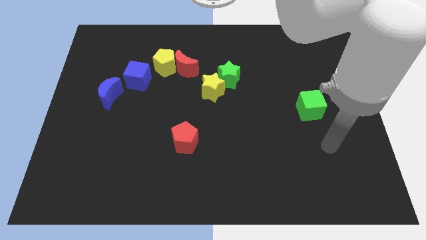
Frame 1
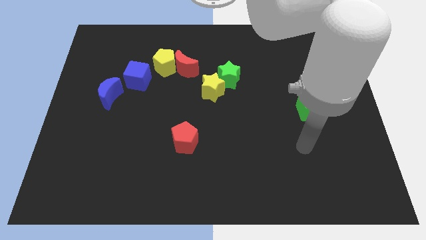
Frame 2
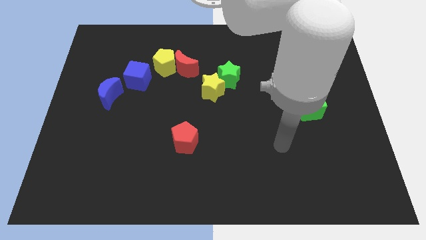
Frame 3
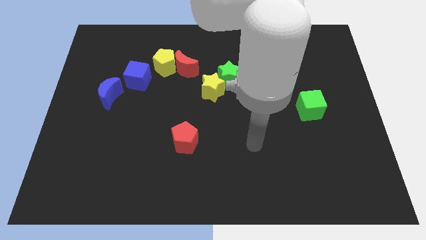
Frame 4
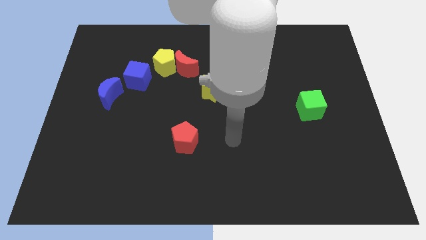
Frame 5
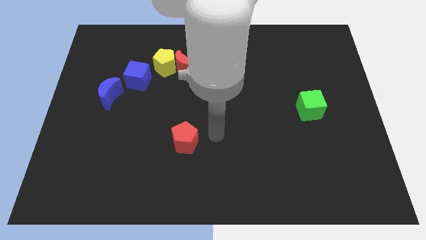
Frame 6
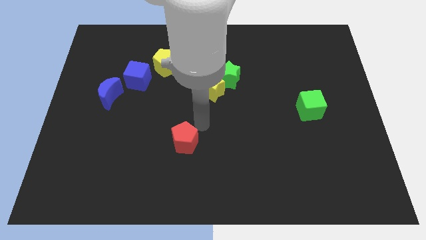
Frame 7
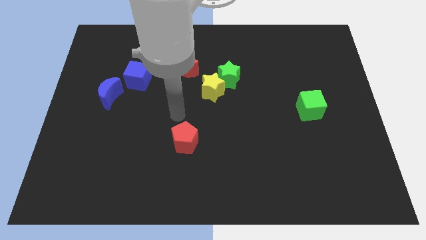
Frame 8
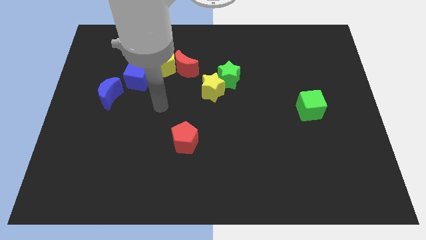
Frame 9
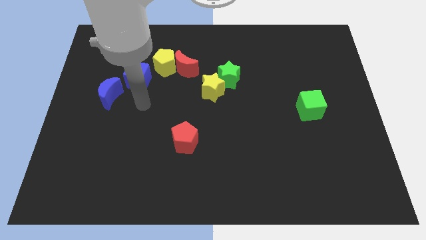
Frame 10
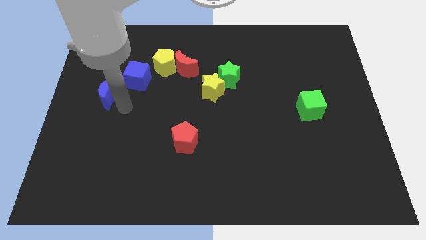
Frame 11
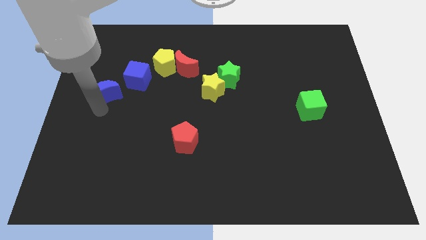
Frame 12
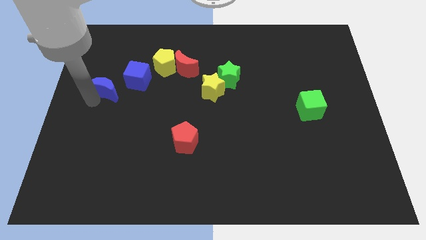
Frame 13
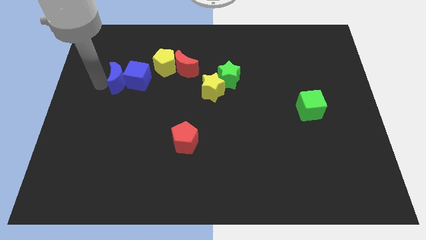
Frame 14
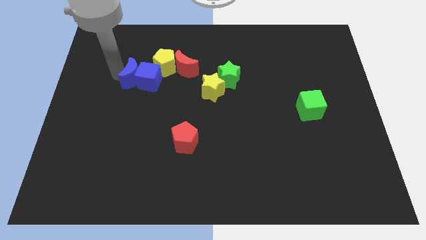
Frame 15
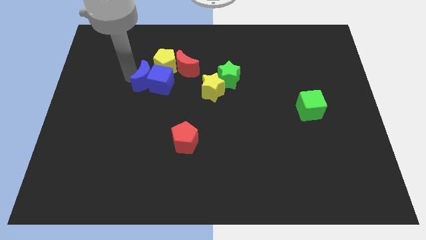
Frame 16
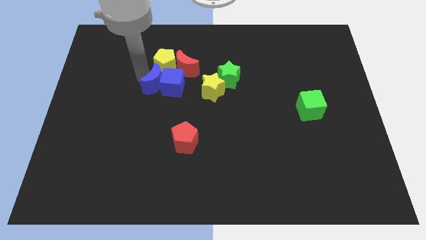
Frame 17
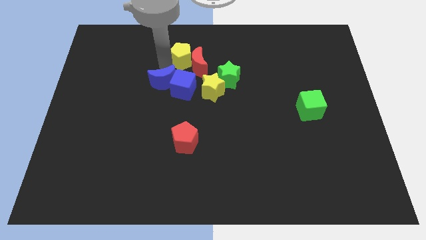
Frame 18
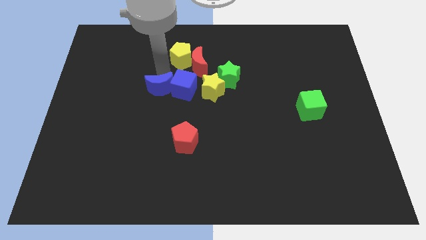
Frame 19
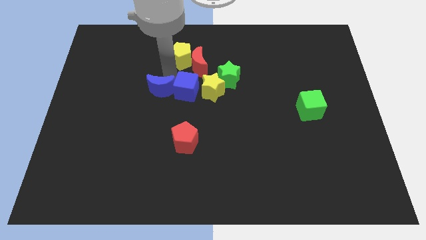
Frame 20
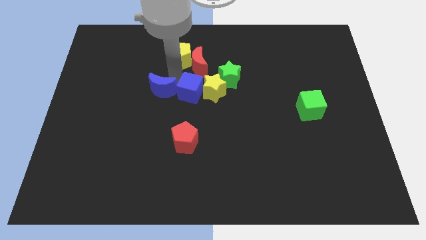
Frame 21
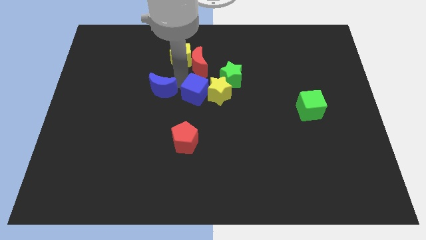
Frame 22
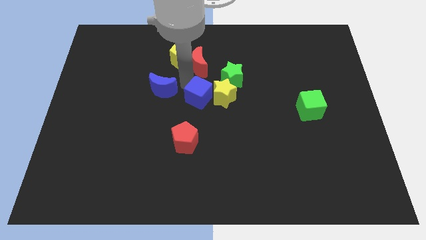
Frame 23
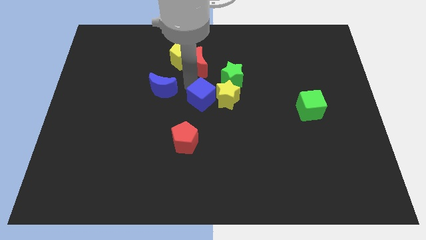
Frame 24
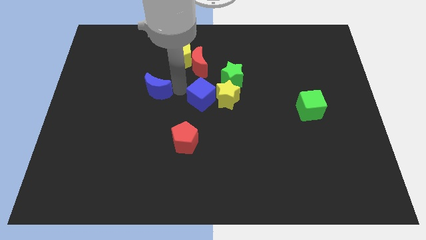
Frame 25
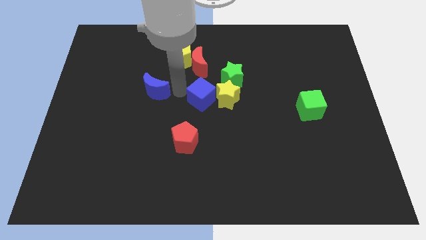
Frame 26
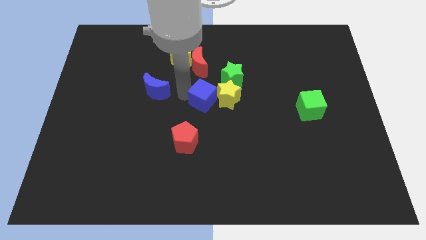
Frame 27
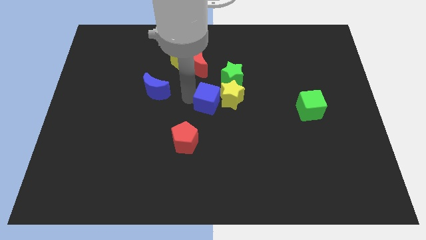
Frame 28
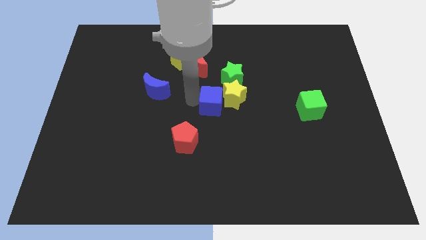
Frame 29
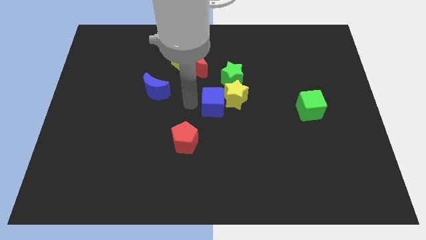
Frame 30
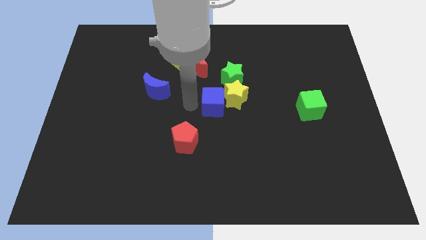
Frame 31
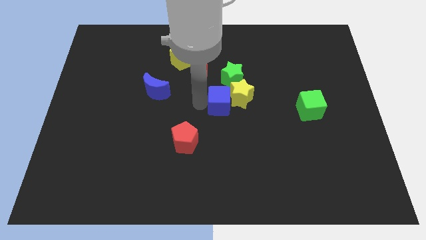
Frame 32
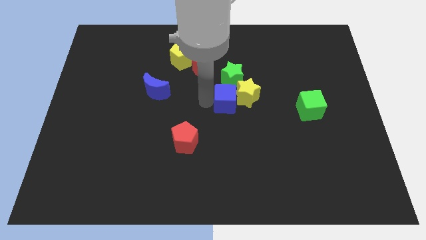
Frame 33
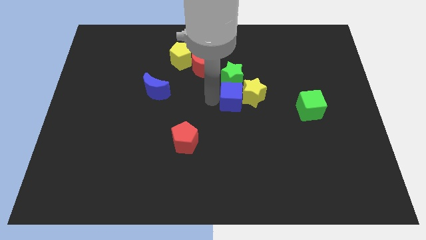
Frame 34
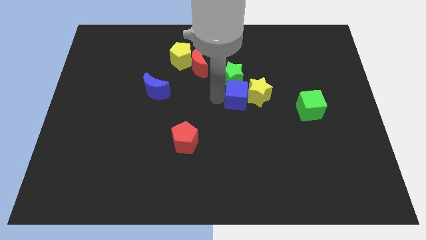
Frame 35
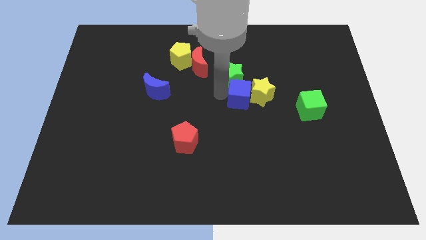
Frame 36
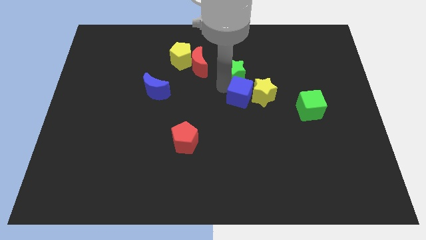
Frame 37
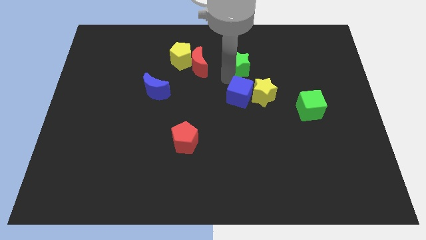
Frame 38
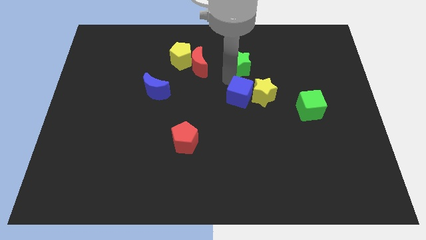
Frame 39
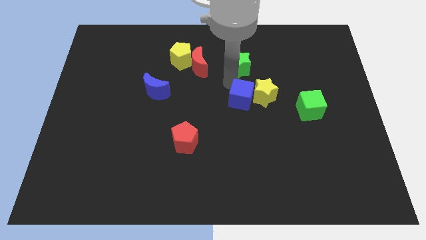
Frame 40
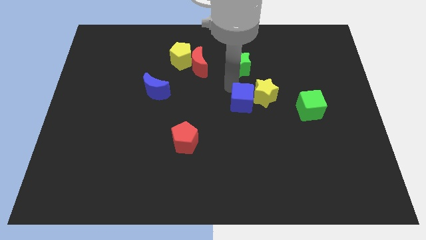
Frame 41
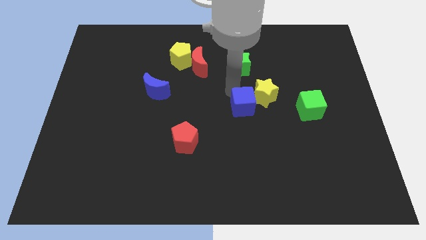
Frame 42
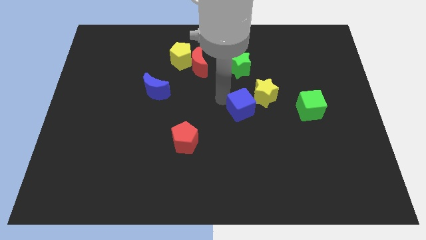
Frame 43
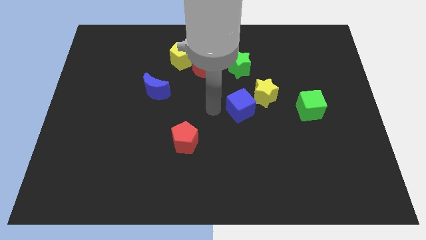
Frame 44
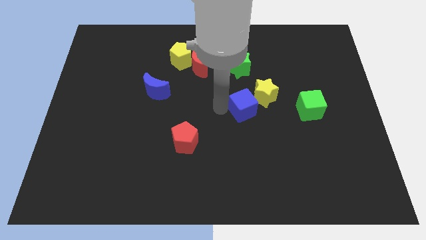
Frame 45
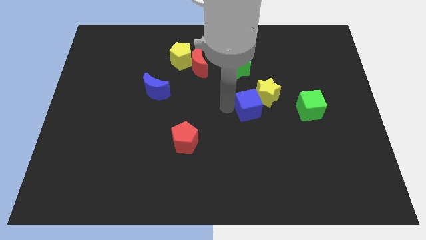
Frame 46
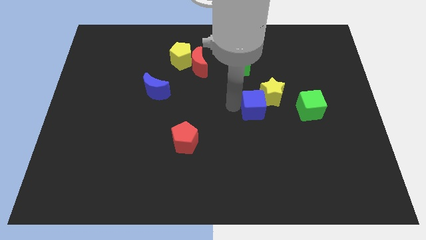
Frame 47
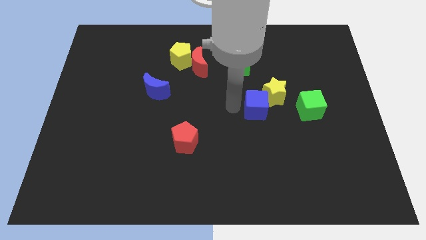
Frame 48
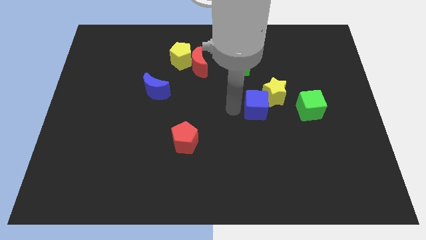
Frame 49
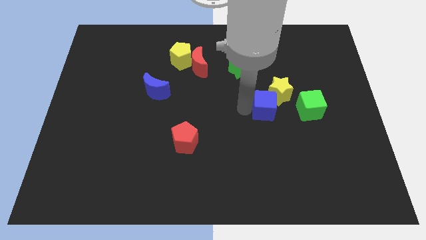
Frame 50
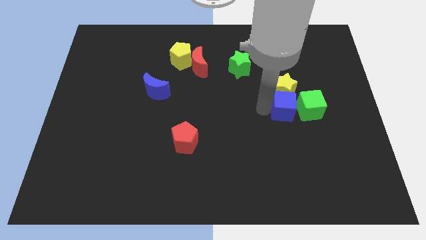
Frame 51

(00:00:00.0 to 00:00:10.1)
push the blue cube to the green cube

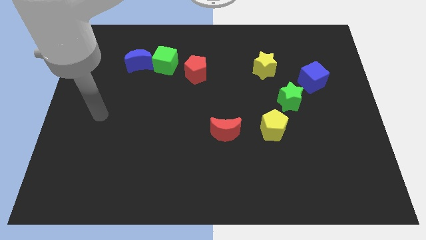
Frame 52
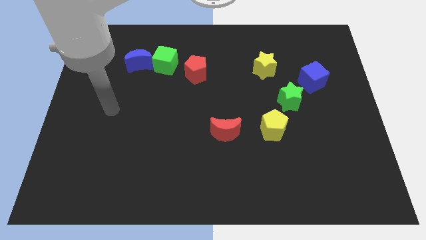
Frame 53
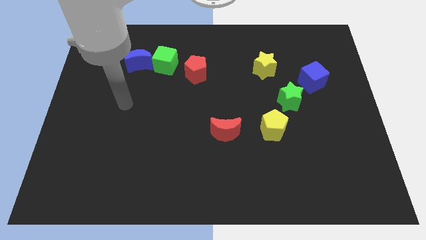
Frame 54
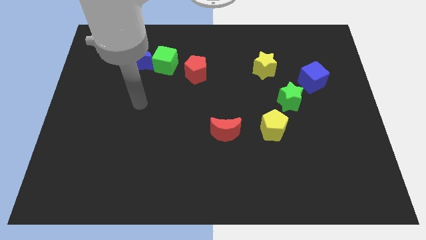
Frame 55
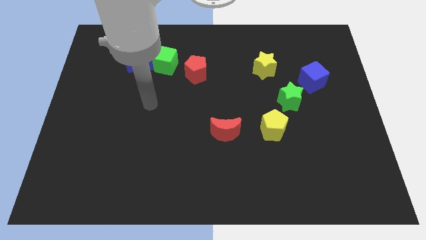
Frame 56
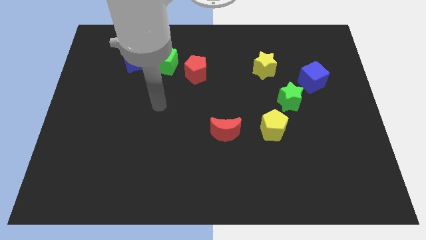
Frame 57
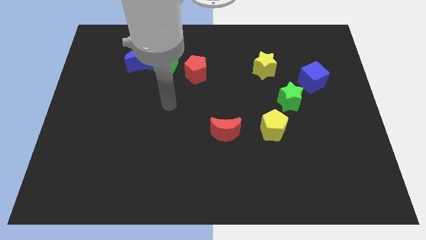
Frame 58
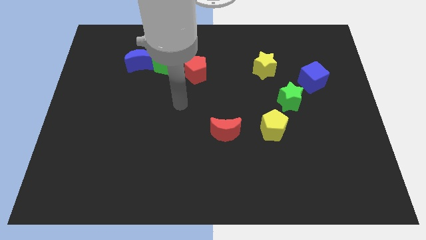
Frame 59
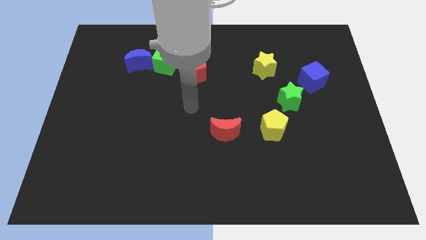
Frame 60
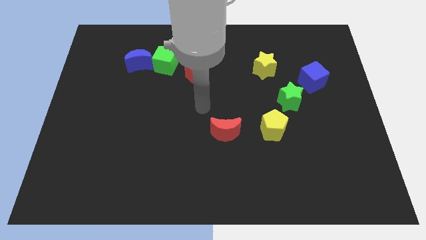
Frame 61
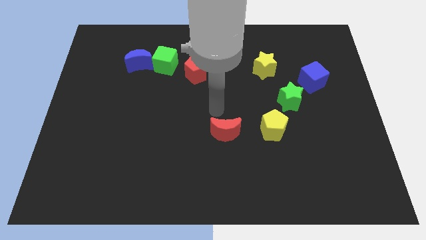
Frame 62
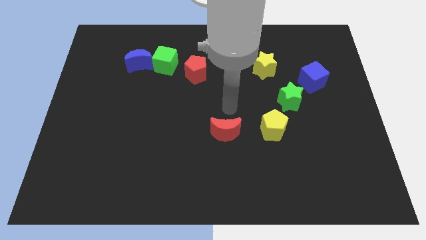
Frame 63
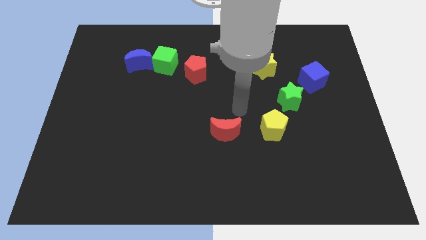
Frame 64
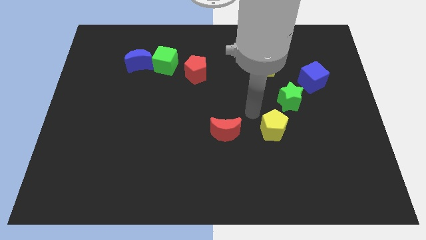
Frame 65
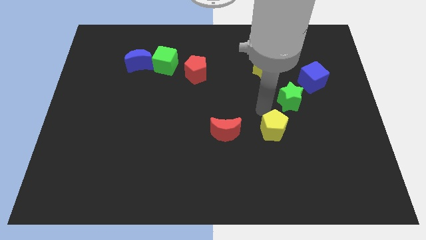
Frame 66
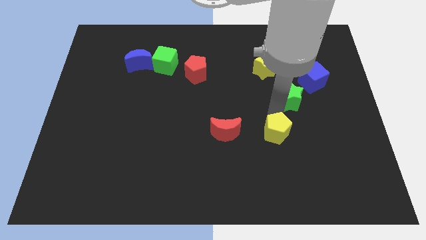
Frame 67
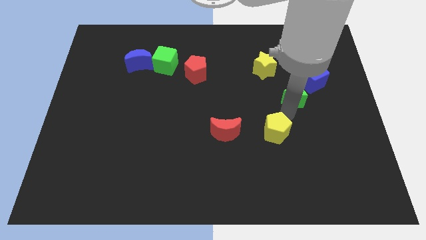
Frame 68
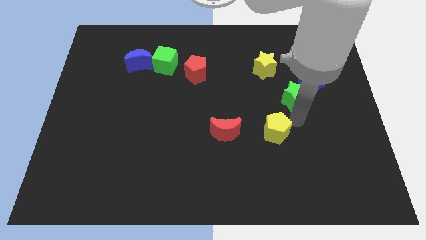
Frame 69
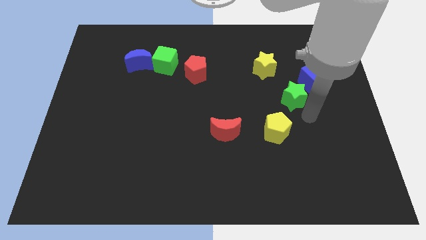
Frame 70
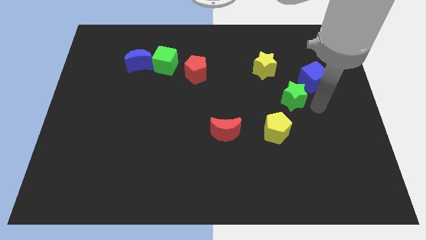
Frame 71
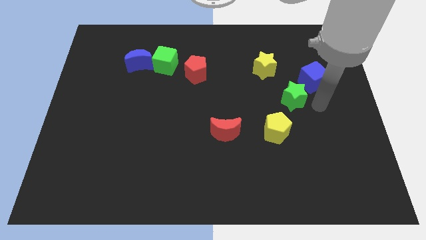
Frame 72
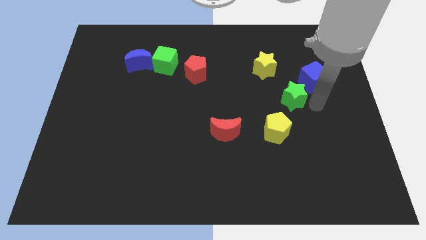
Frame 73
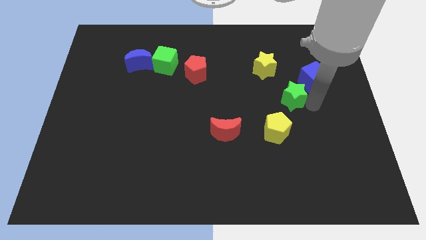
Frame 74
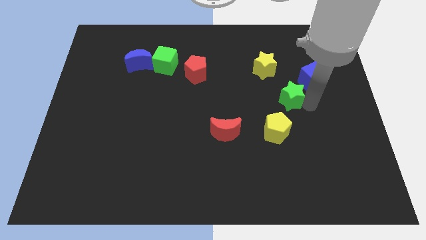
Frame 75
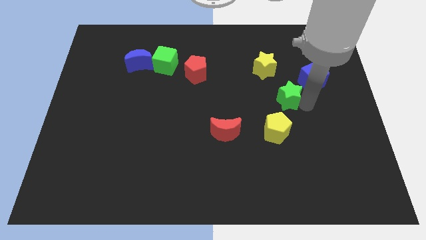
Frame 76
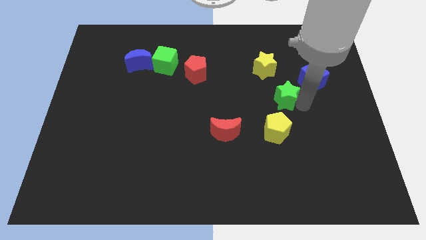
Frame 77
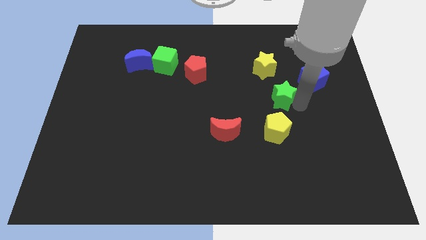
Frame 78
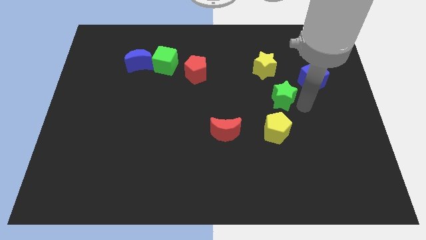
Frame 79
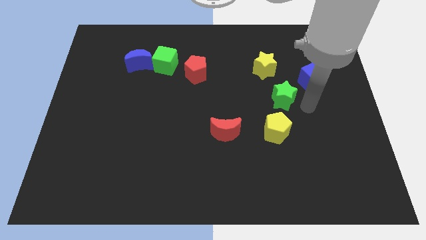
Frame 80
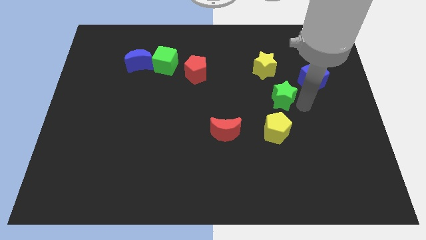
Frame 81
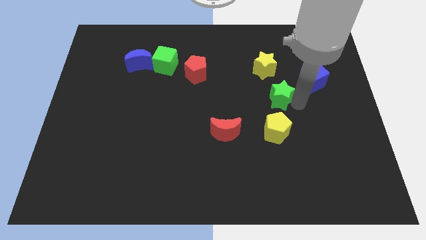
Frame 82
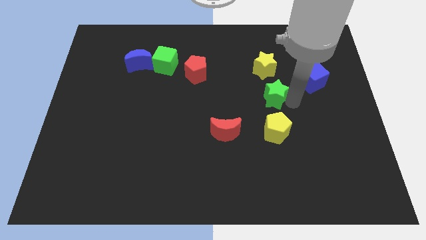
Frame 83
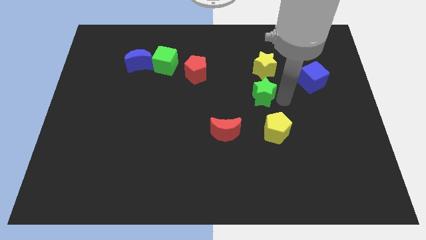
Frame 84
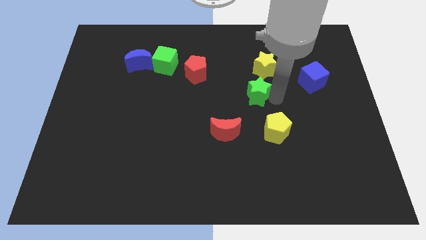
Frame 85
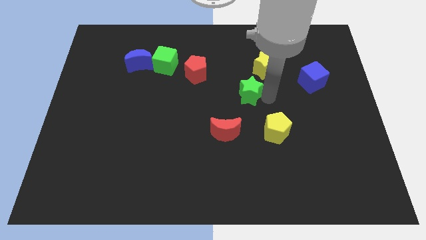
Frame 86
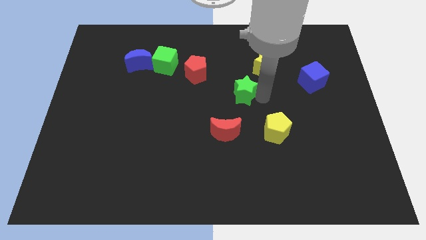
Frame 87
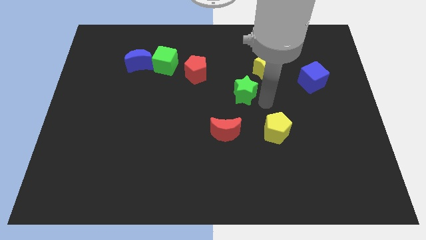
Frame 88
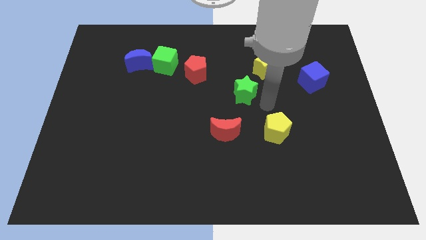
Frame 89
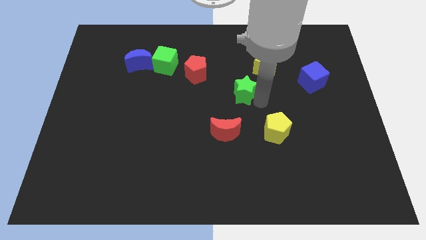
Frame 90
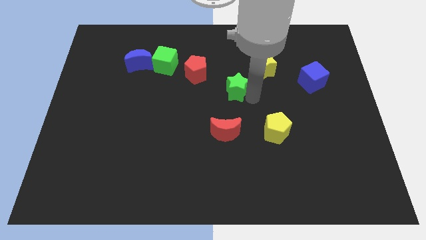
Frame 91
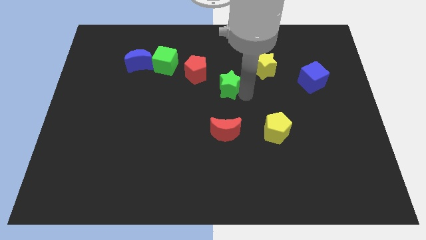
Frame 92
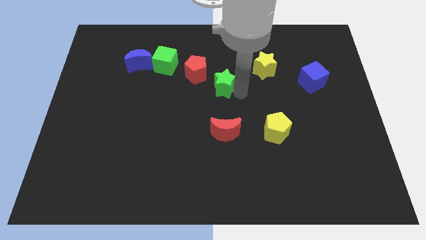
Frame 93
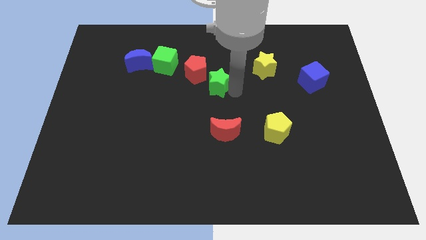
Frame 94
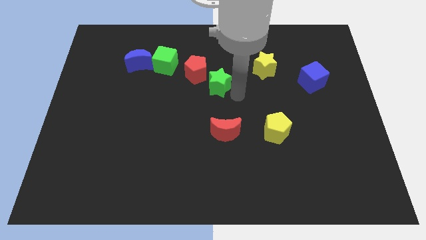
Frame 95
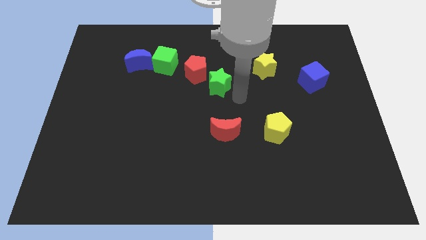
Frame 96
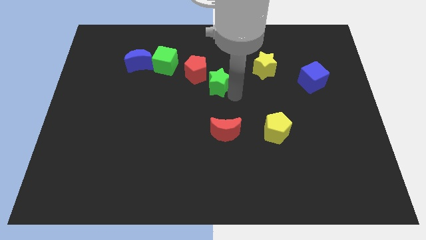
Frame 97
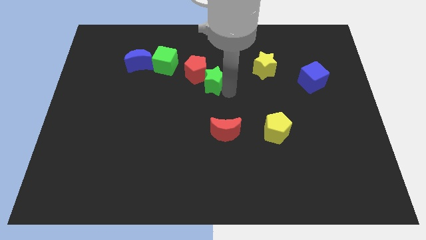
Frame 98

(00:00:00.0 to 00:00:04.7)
slide the green star to the red pentagon
